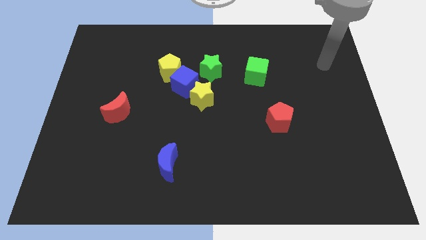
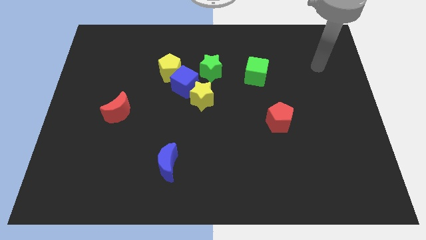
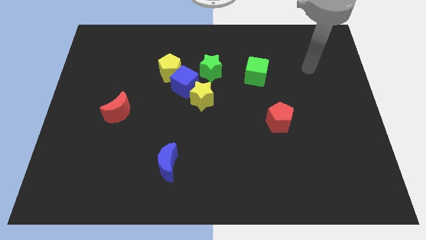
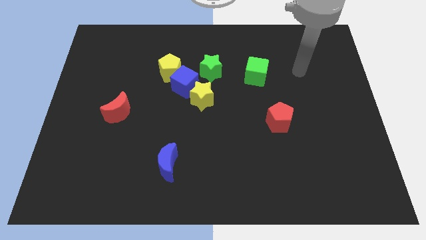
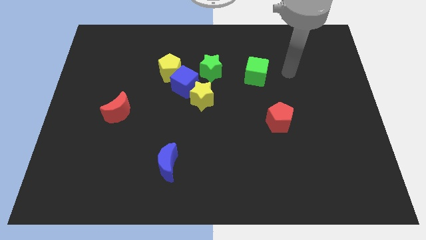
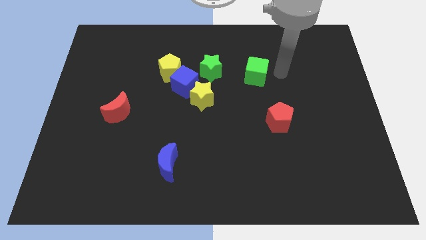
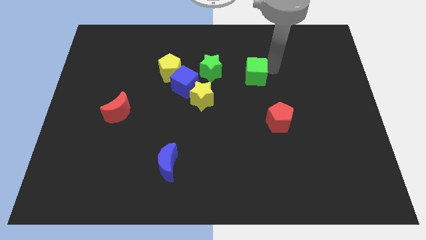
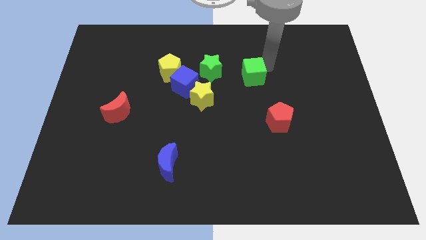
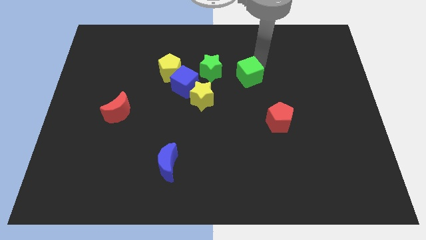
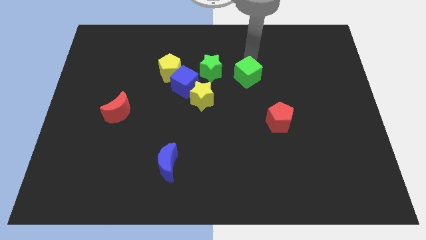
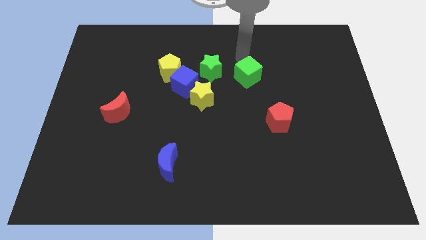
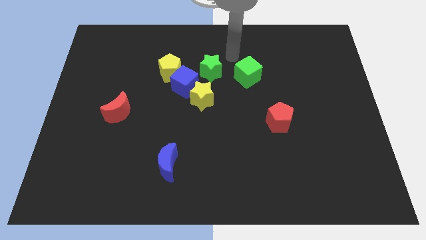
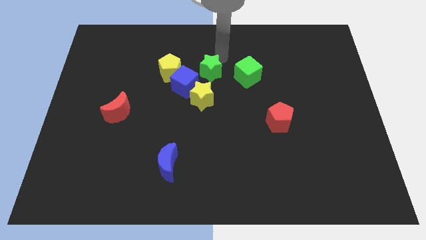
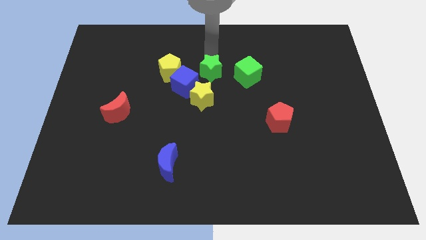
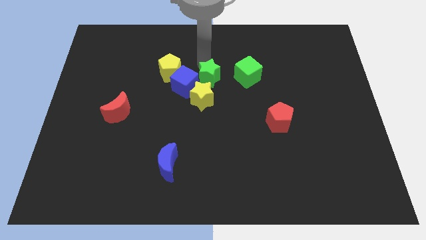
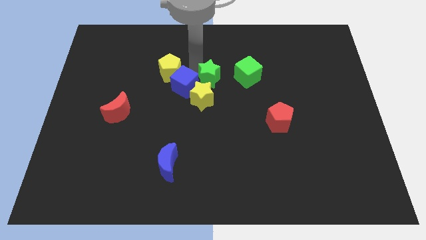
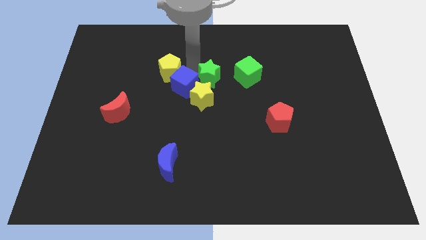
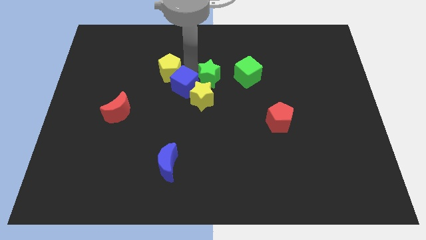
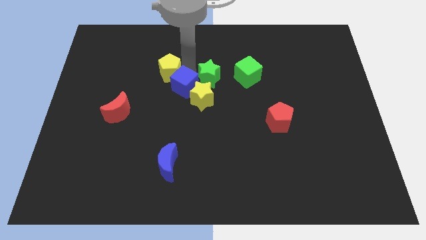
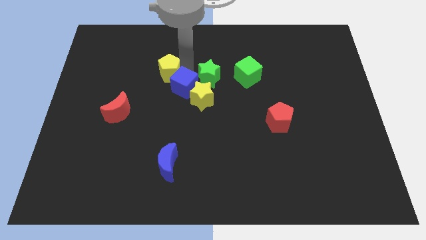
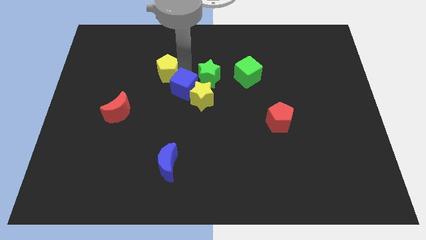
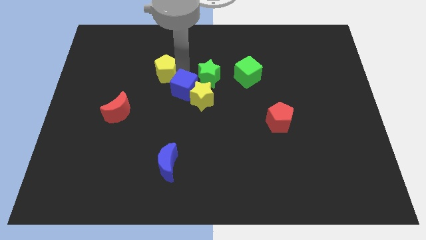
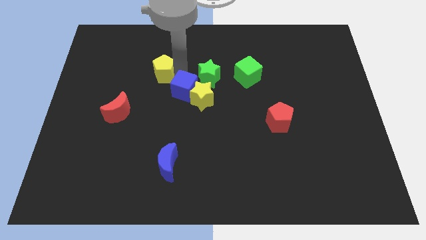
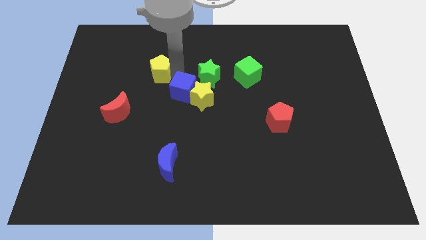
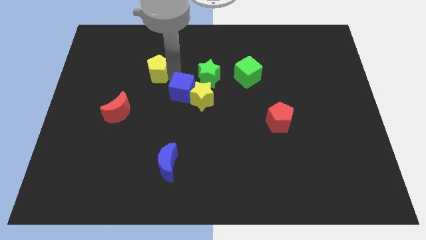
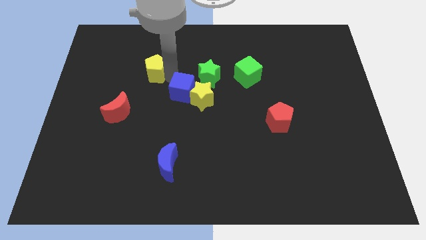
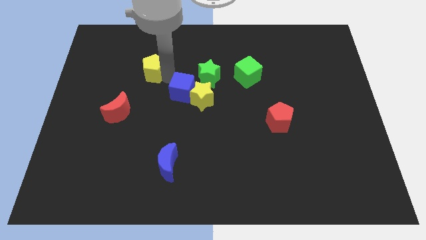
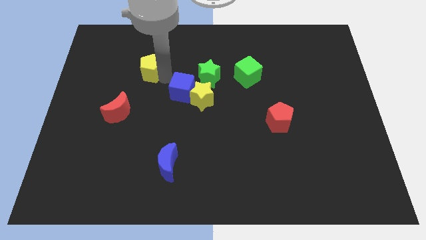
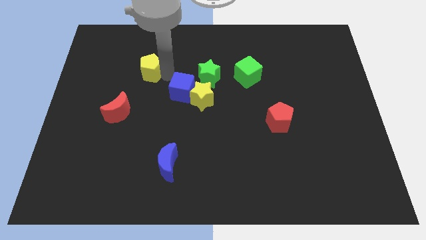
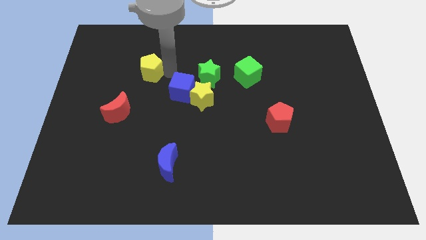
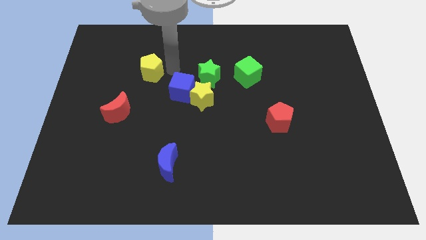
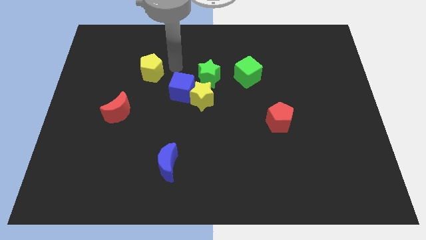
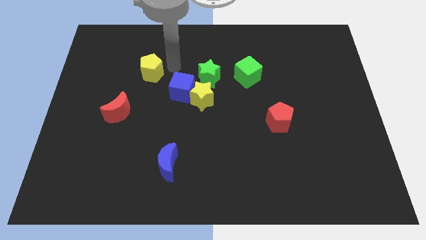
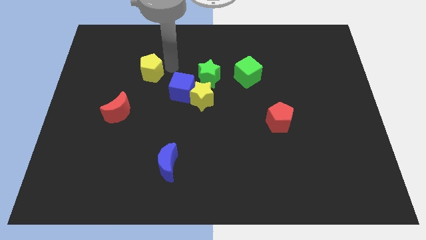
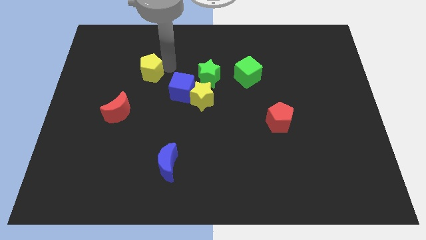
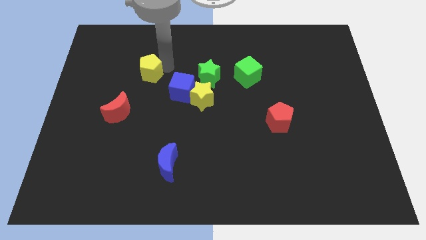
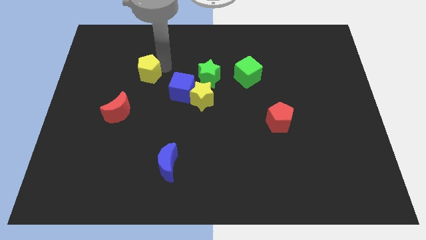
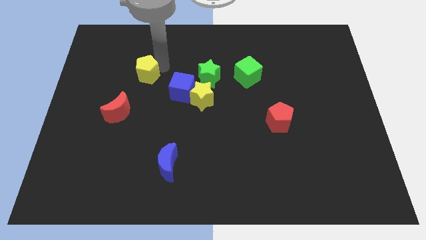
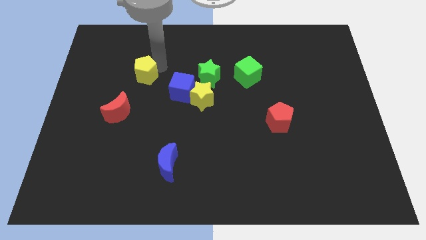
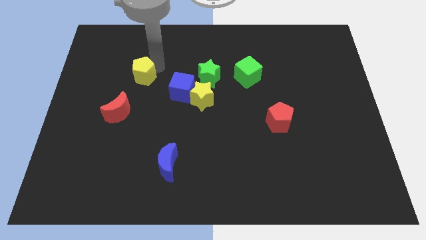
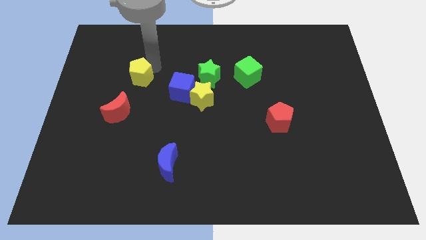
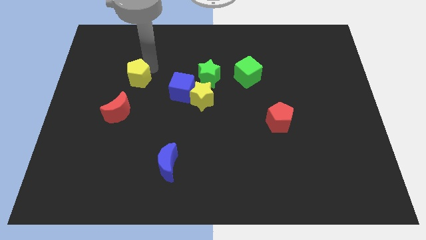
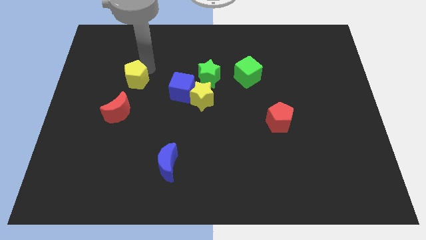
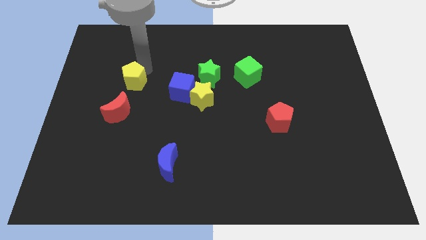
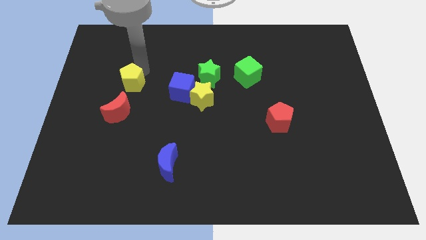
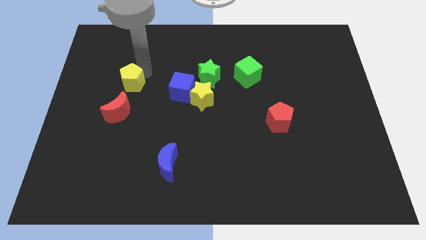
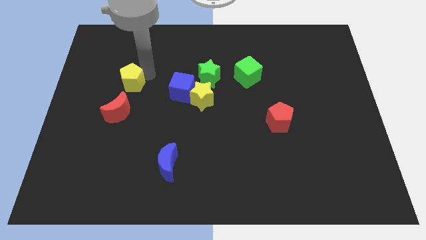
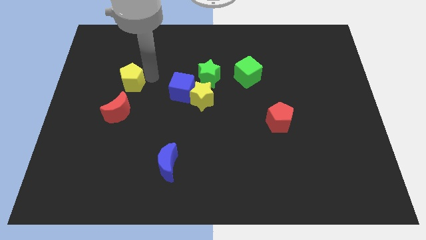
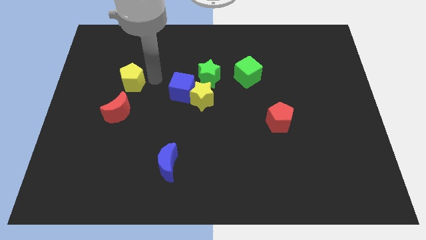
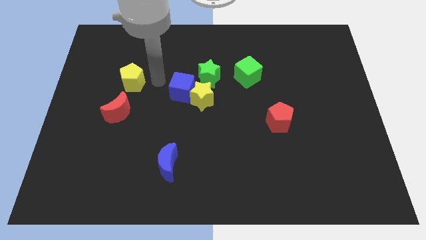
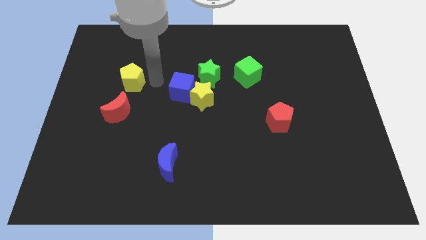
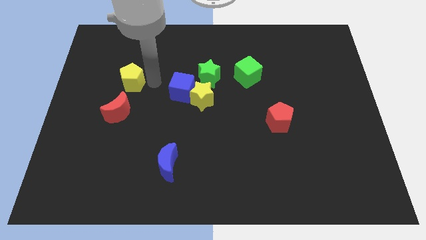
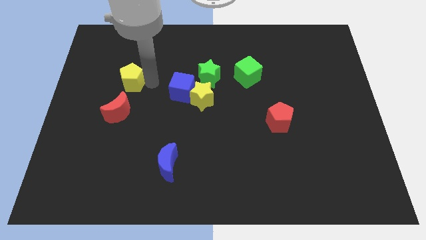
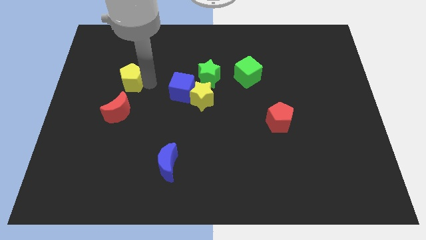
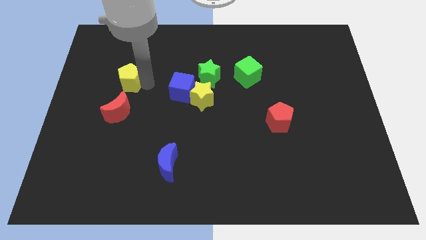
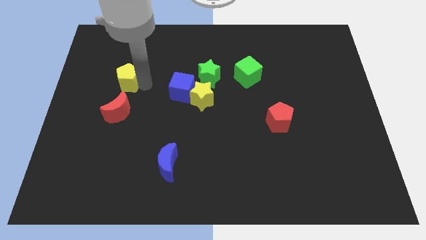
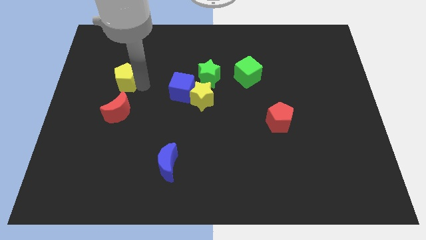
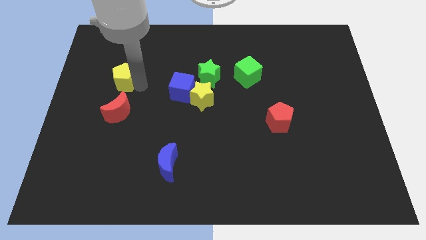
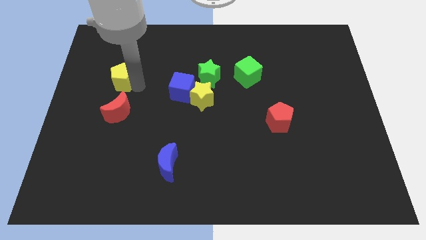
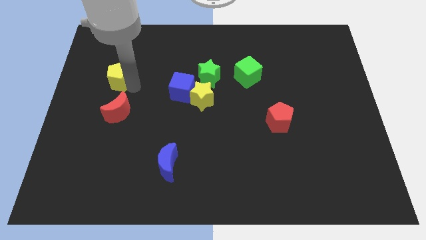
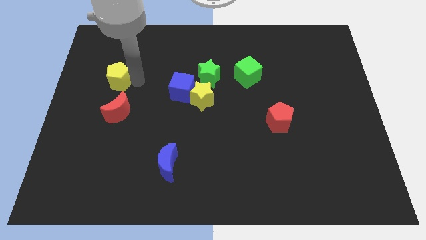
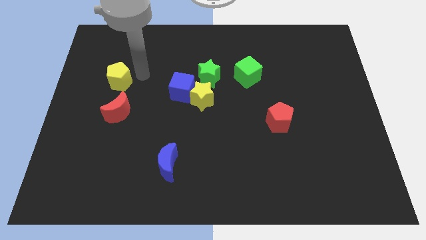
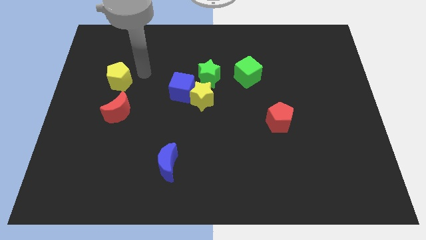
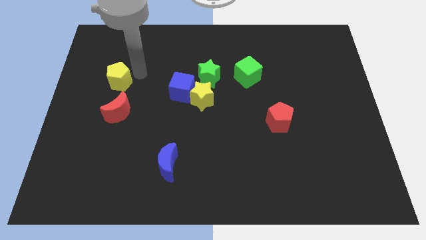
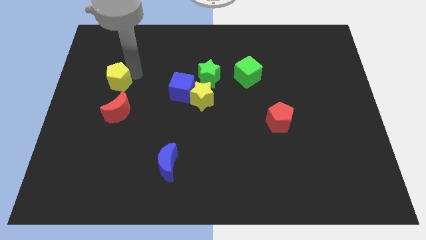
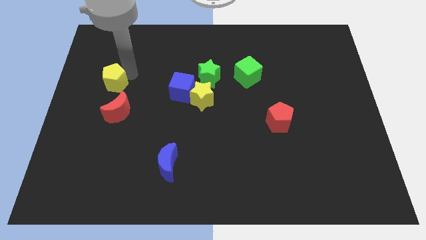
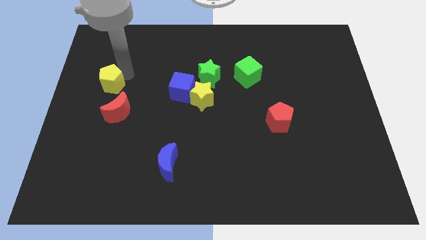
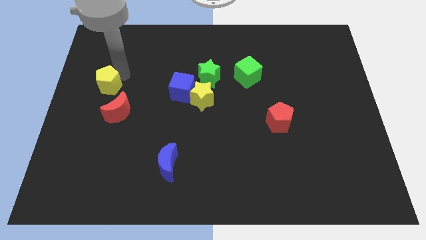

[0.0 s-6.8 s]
push the yellow pentagon to the left side of the board
